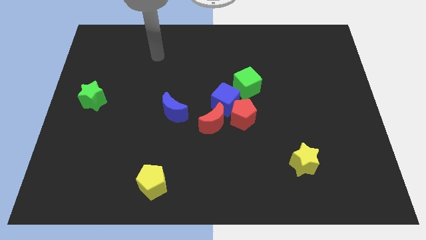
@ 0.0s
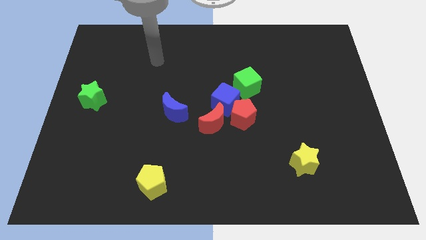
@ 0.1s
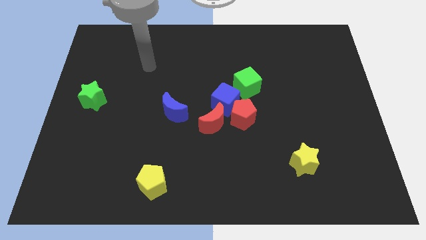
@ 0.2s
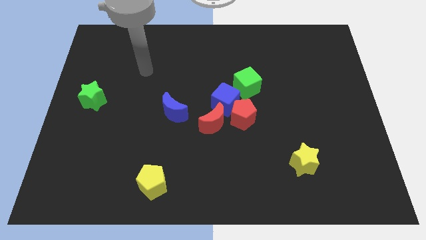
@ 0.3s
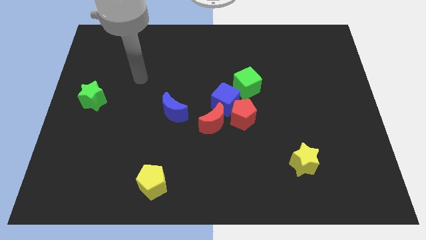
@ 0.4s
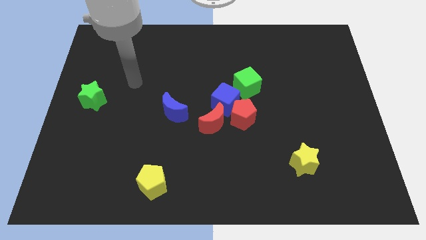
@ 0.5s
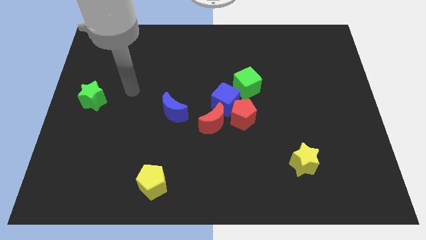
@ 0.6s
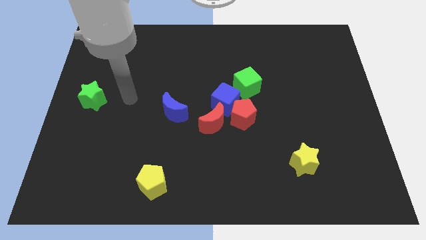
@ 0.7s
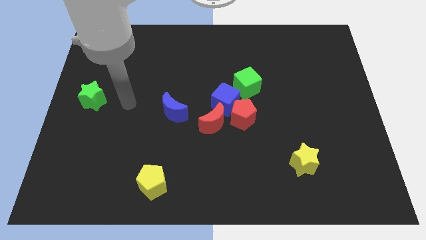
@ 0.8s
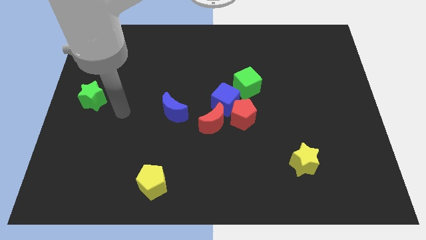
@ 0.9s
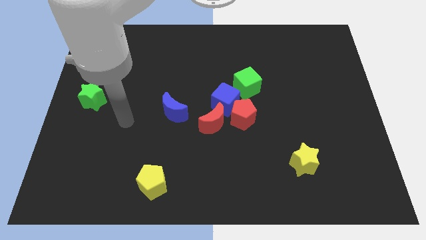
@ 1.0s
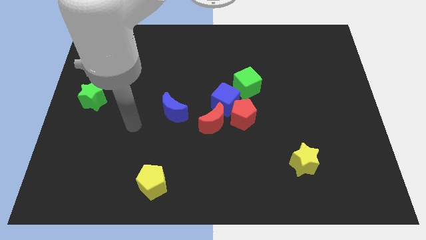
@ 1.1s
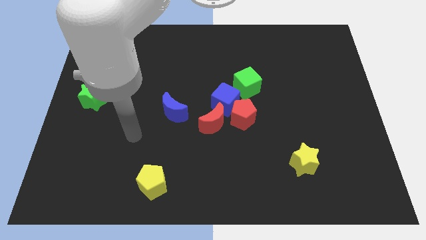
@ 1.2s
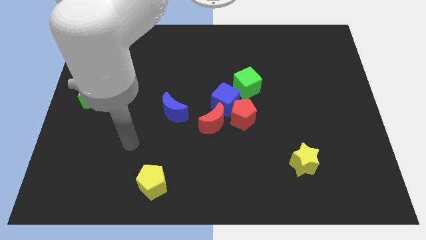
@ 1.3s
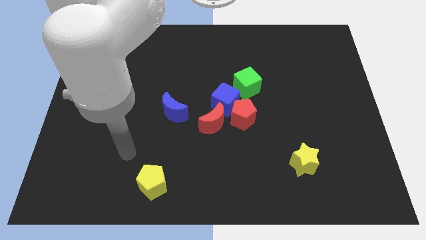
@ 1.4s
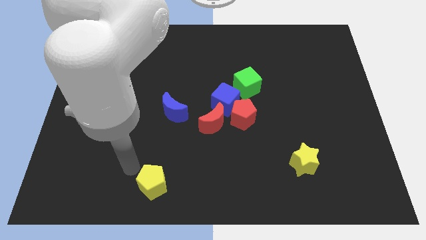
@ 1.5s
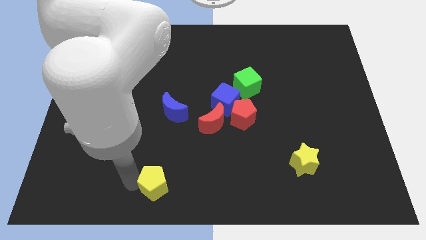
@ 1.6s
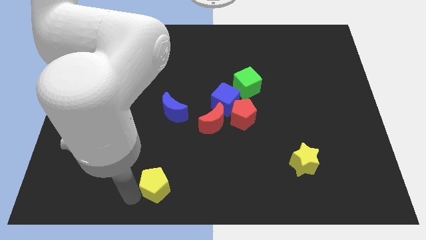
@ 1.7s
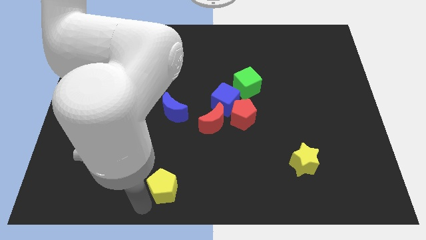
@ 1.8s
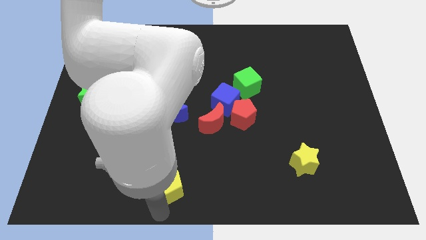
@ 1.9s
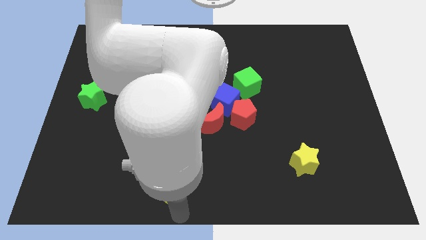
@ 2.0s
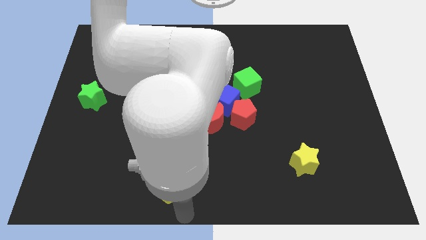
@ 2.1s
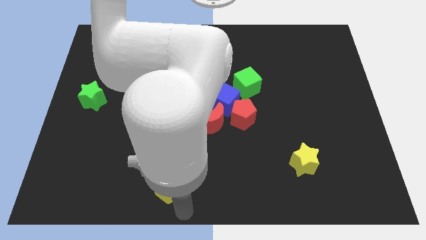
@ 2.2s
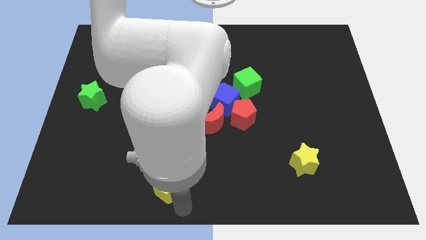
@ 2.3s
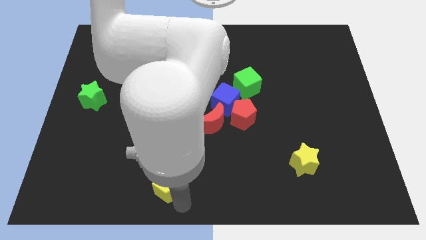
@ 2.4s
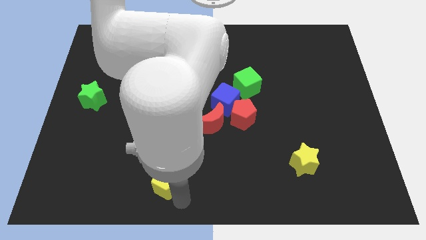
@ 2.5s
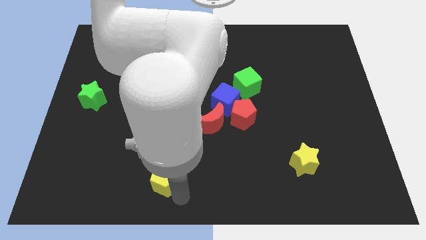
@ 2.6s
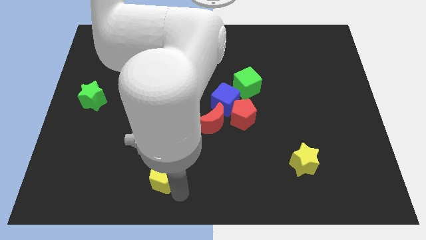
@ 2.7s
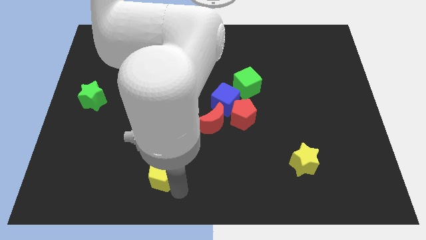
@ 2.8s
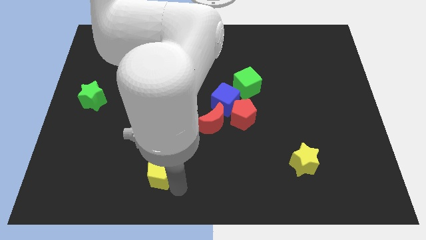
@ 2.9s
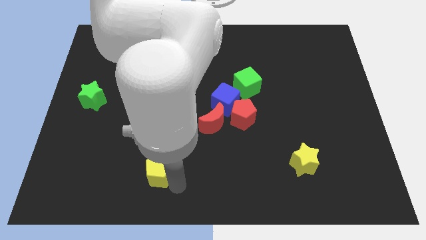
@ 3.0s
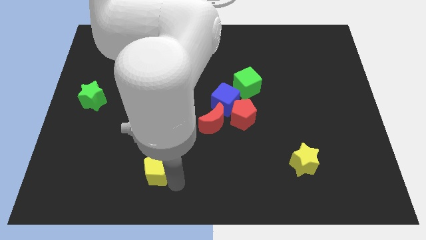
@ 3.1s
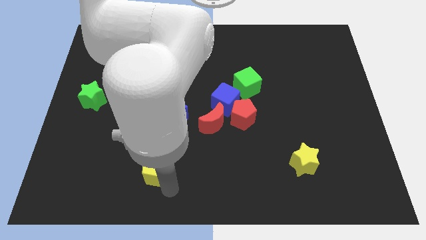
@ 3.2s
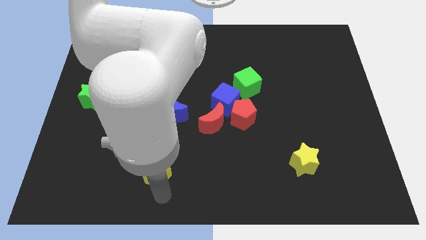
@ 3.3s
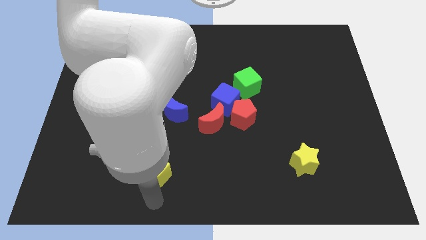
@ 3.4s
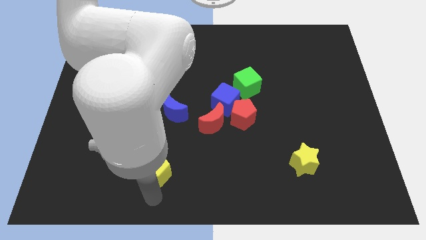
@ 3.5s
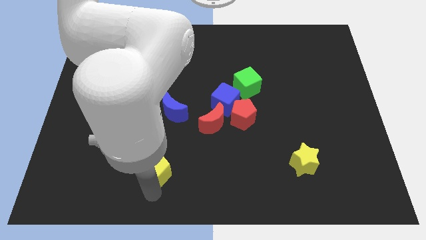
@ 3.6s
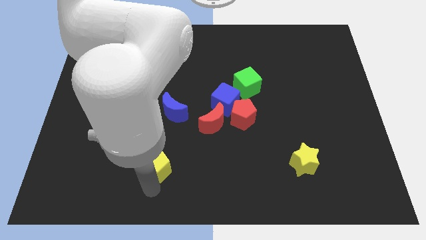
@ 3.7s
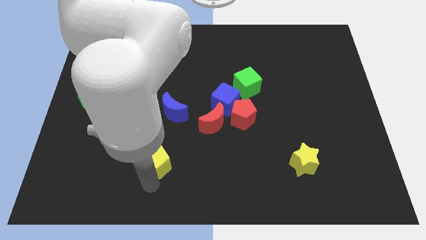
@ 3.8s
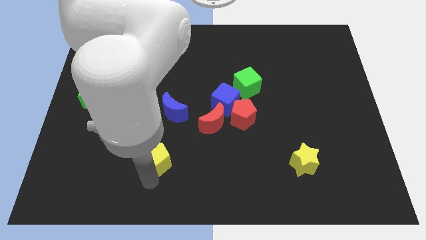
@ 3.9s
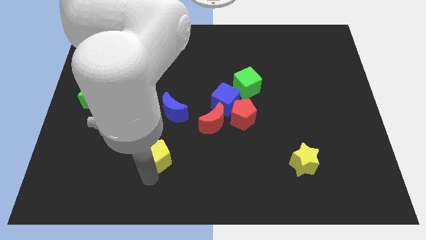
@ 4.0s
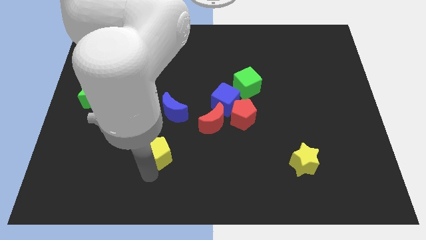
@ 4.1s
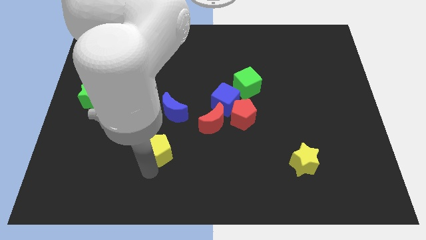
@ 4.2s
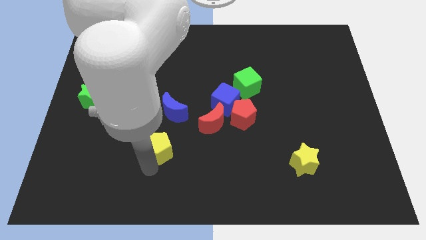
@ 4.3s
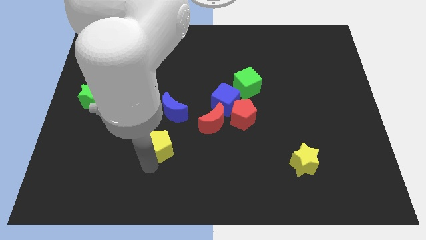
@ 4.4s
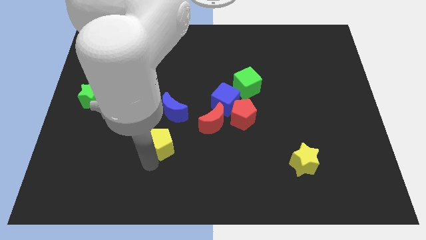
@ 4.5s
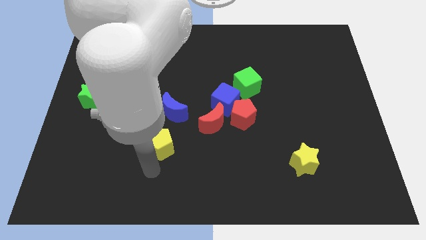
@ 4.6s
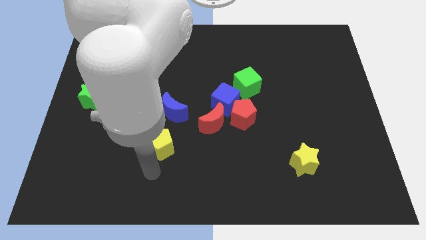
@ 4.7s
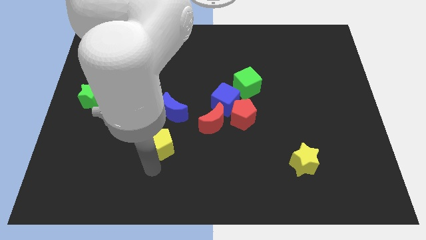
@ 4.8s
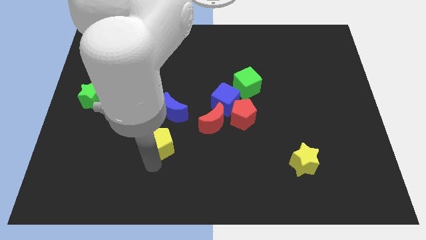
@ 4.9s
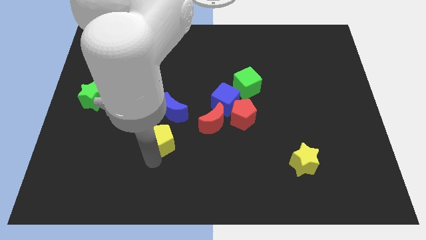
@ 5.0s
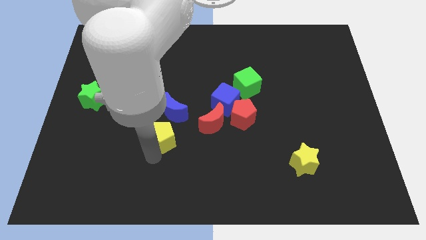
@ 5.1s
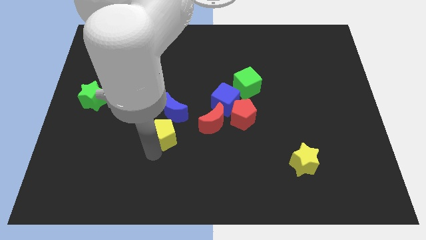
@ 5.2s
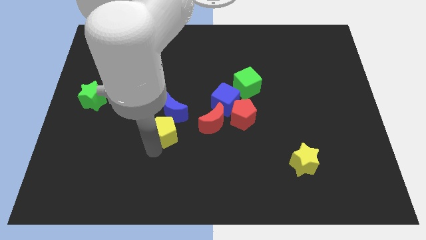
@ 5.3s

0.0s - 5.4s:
slide the yellow pentagon towards the blue moon

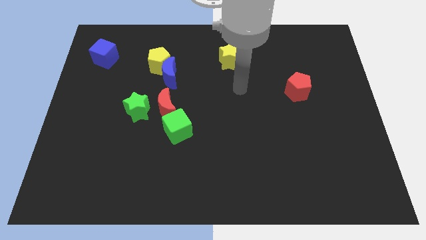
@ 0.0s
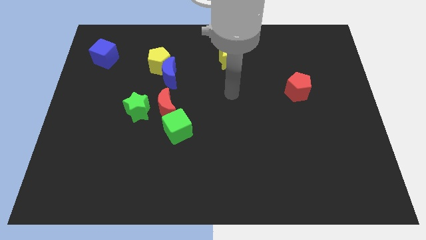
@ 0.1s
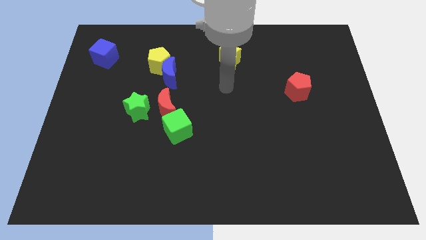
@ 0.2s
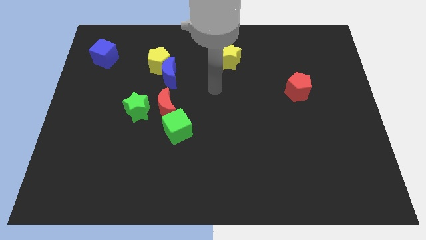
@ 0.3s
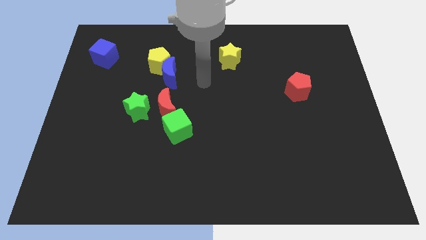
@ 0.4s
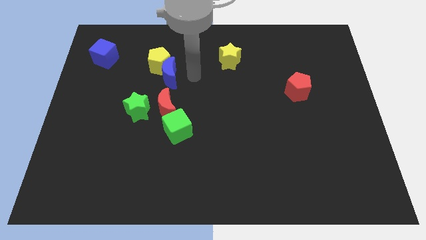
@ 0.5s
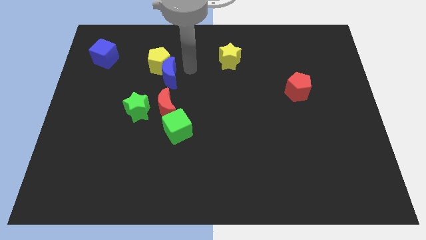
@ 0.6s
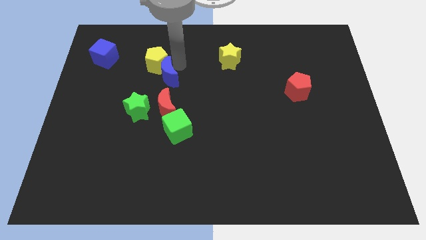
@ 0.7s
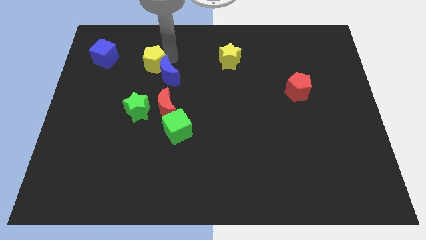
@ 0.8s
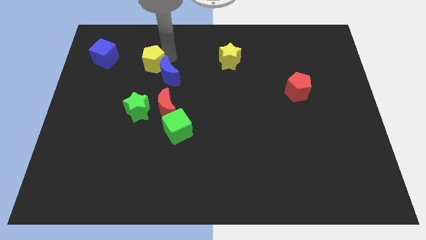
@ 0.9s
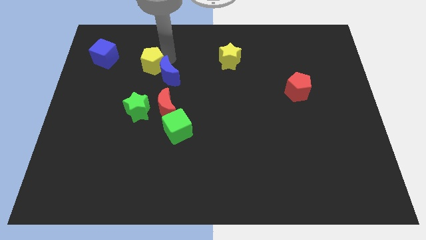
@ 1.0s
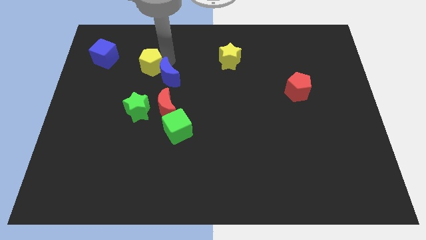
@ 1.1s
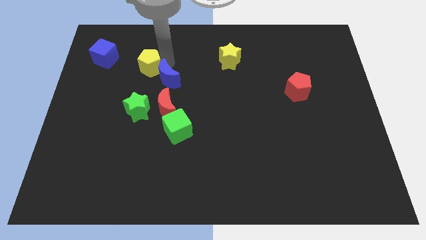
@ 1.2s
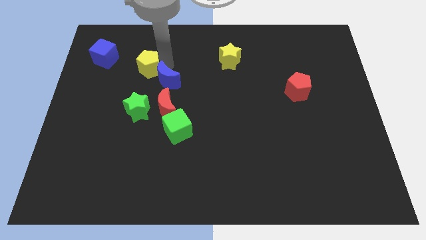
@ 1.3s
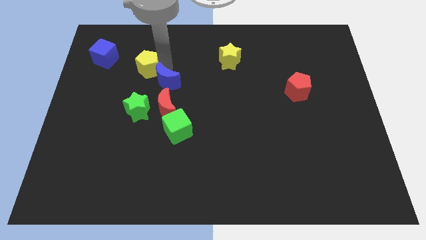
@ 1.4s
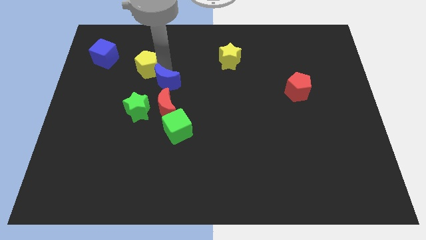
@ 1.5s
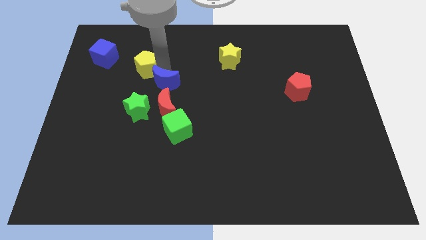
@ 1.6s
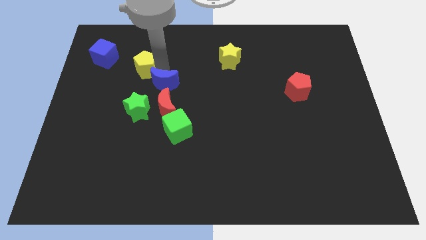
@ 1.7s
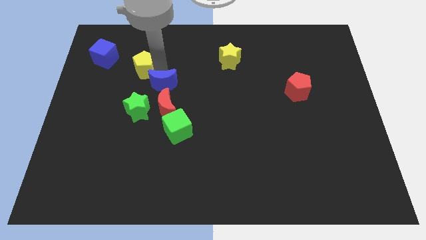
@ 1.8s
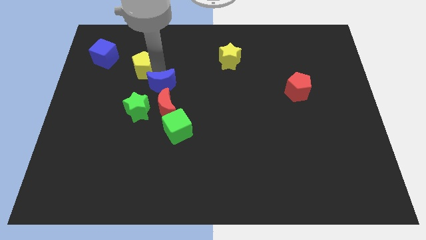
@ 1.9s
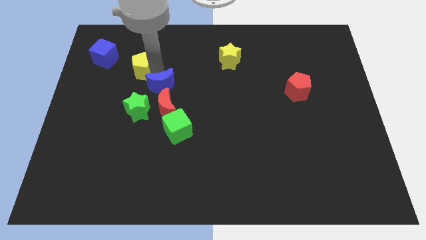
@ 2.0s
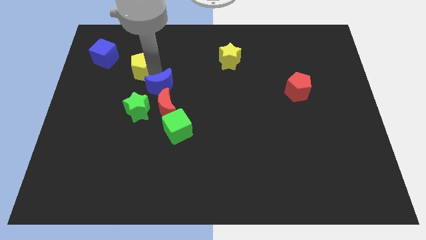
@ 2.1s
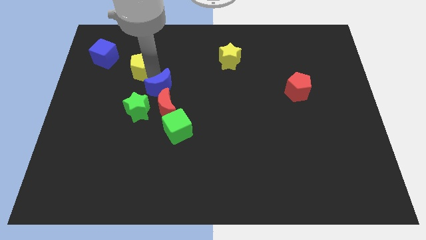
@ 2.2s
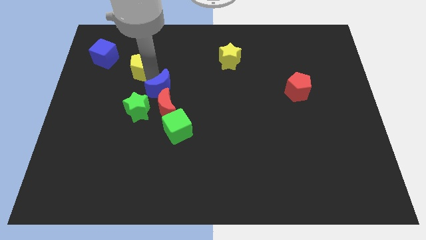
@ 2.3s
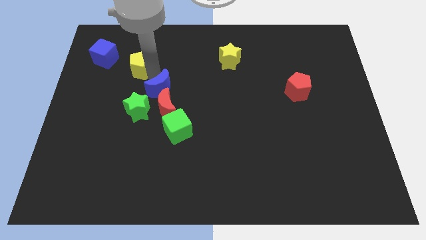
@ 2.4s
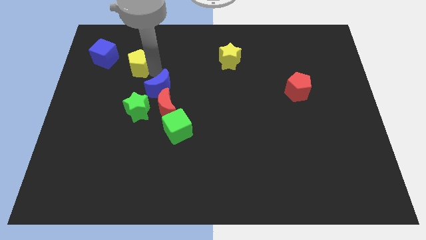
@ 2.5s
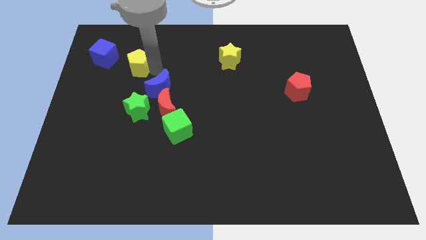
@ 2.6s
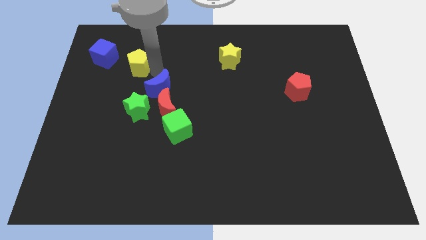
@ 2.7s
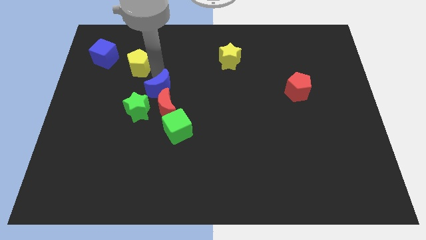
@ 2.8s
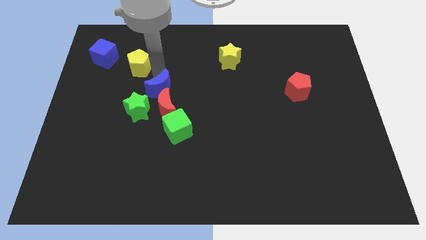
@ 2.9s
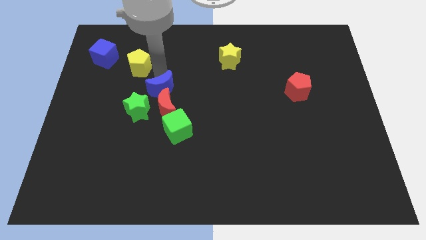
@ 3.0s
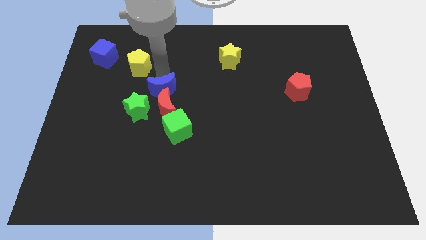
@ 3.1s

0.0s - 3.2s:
slide the blue moon close to the red moon
